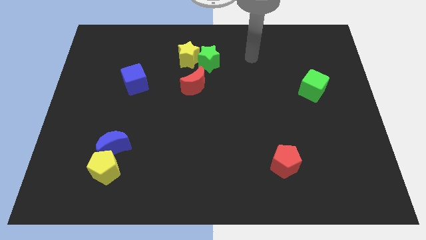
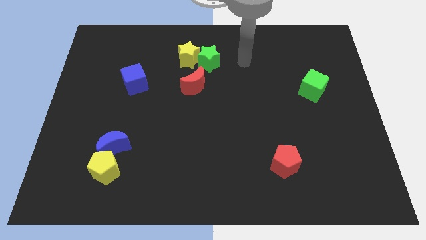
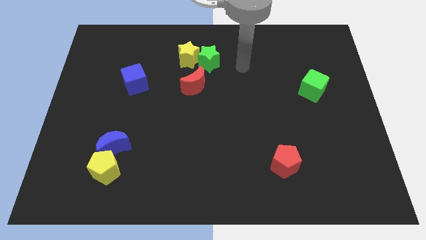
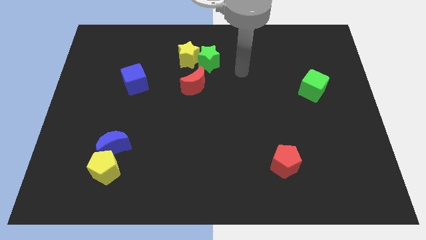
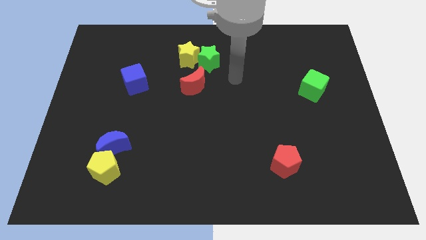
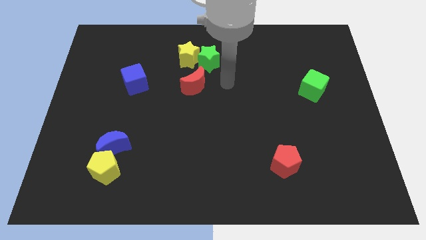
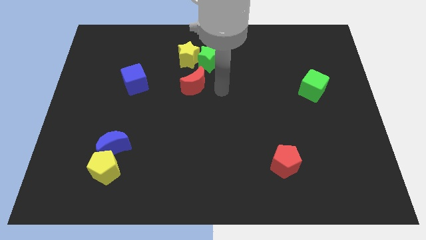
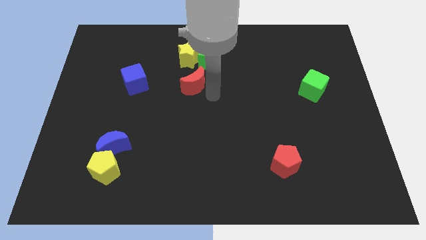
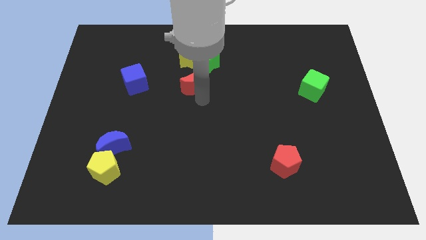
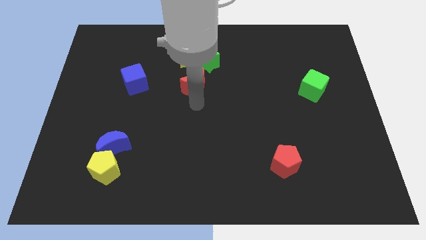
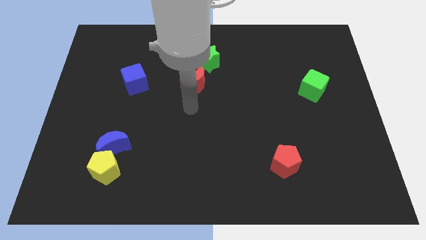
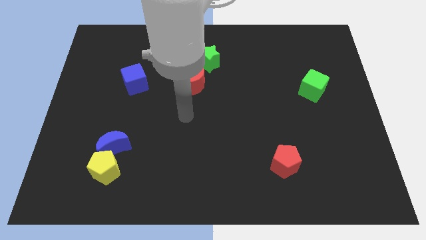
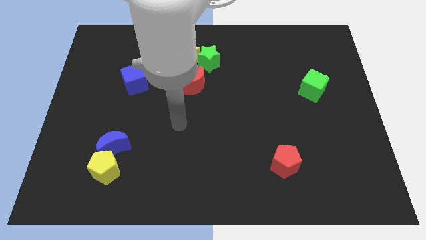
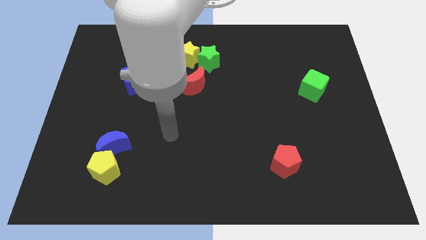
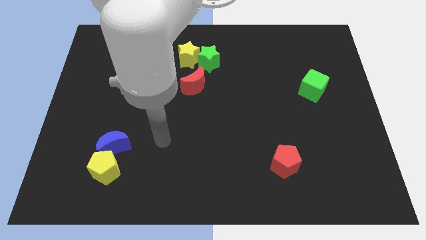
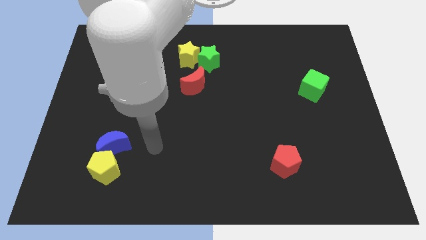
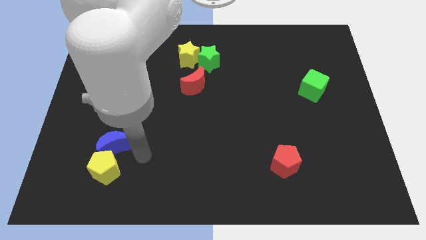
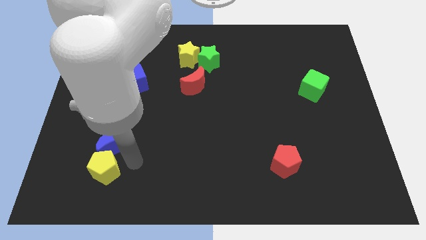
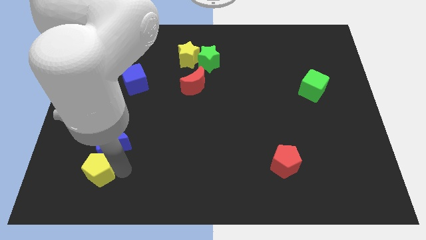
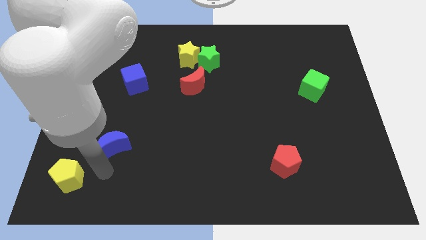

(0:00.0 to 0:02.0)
pull the blue moon apart from the yellow pentagon

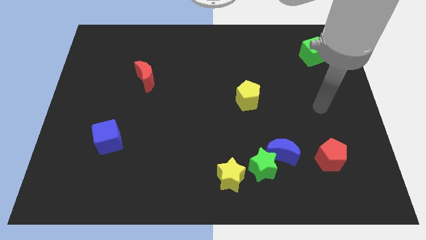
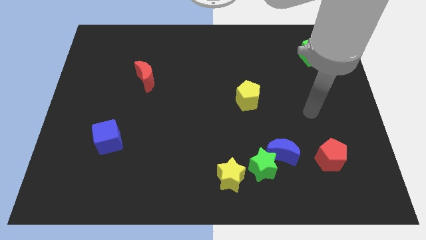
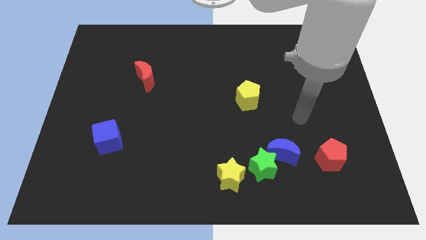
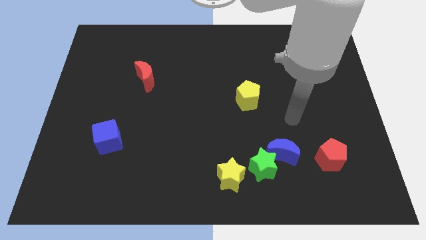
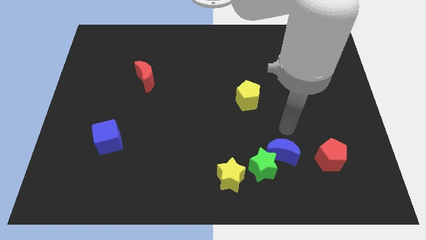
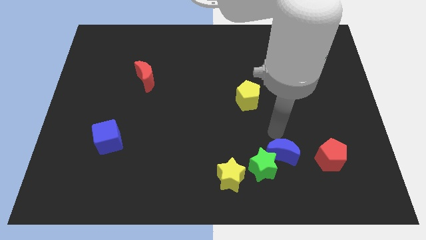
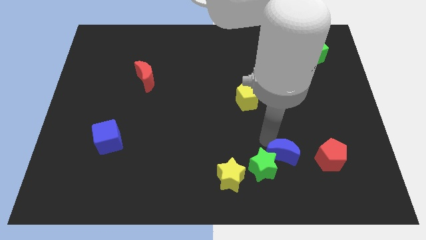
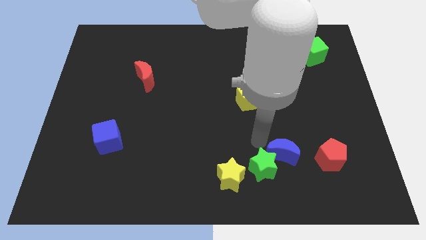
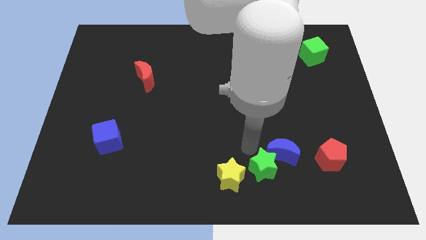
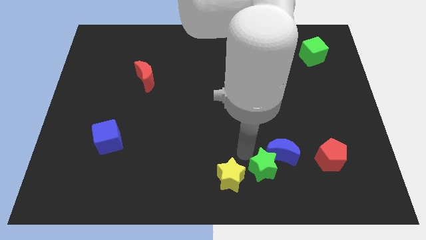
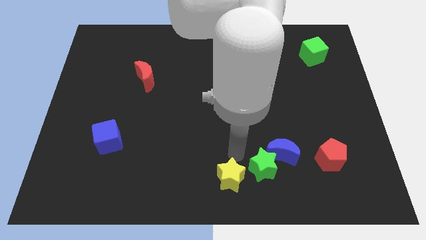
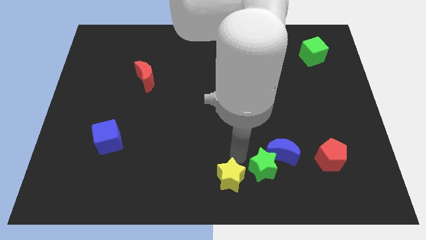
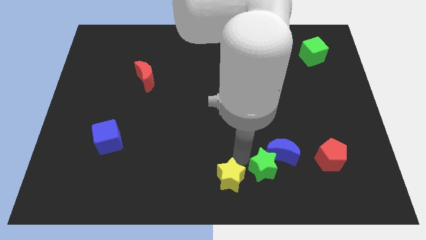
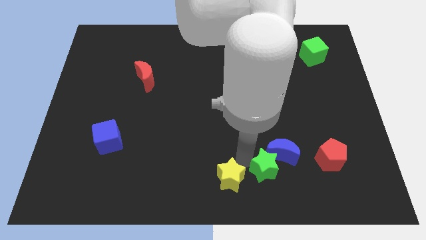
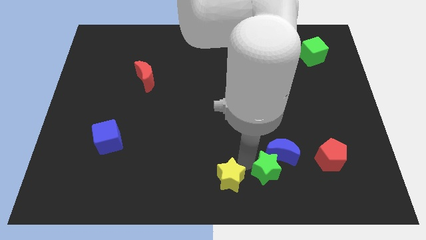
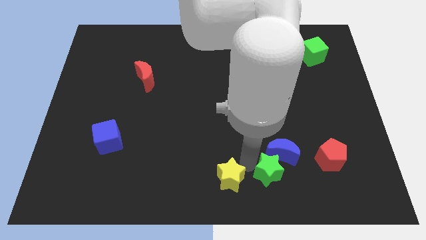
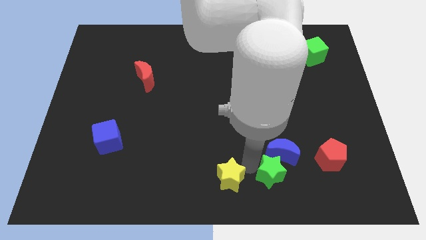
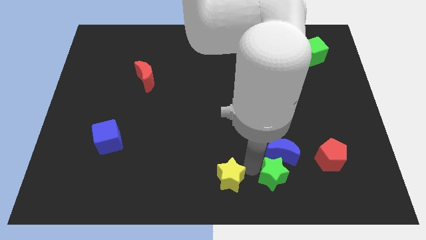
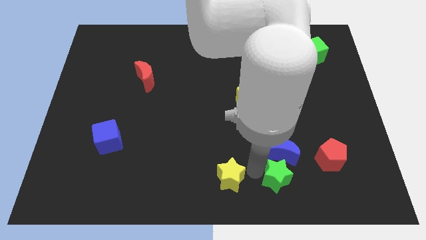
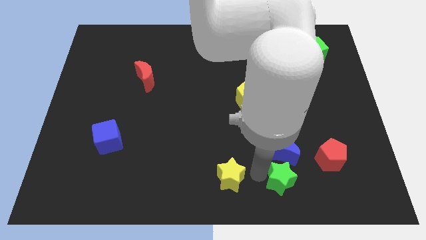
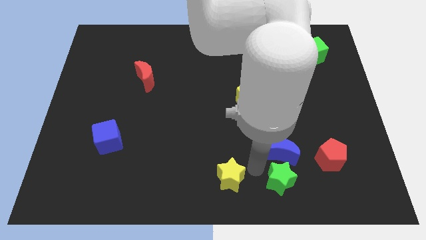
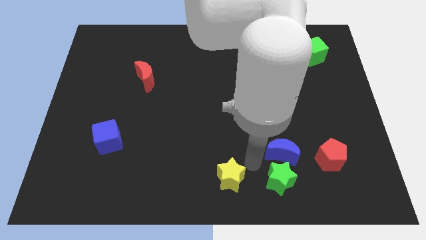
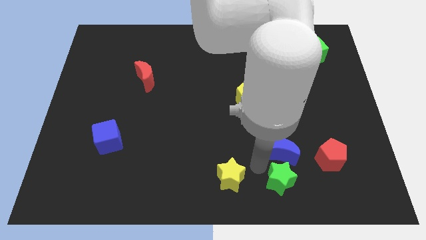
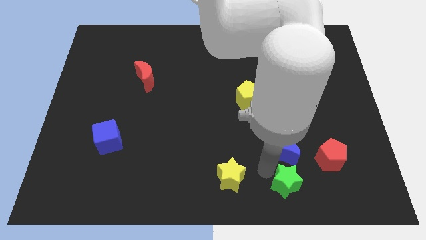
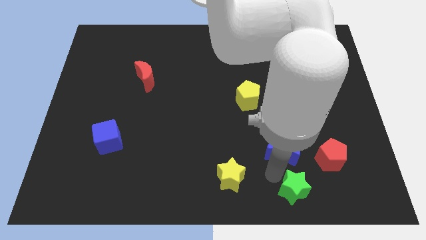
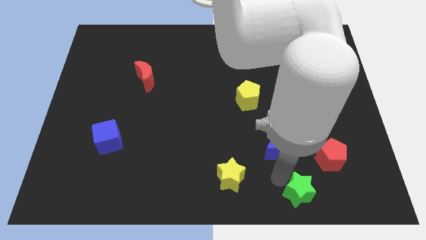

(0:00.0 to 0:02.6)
pull the green star apart from the blue moon and yellow star

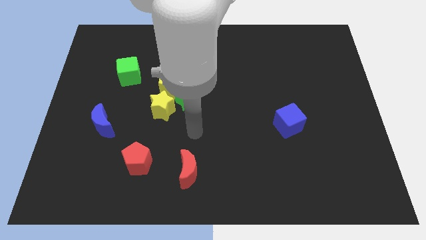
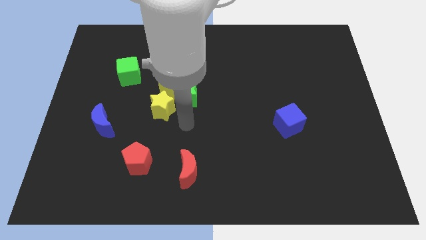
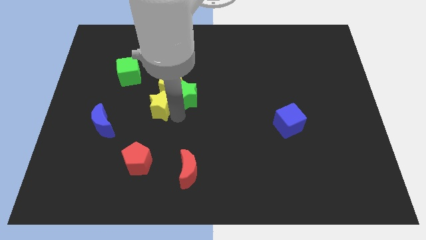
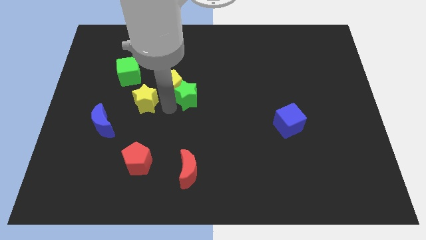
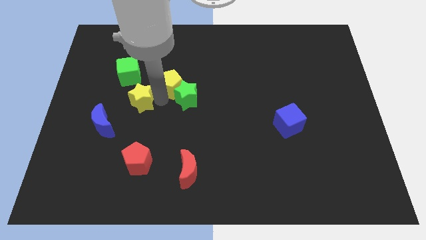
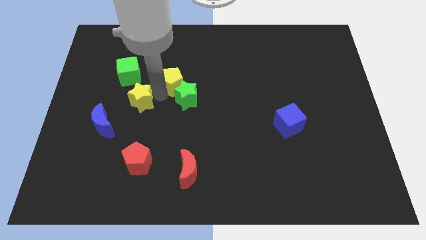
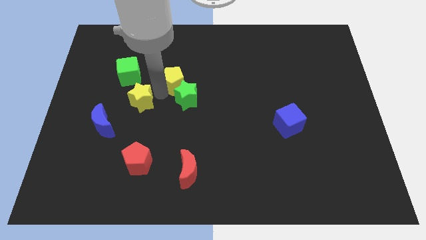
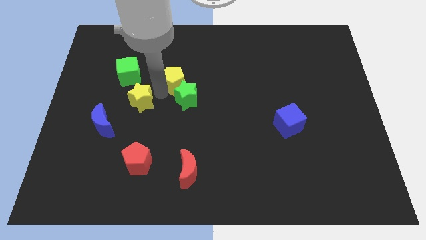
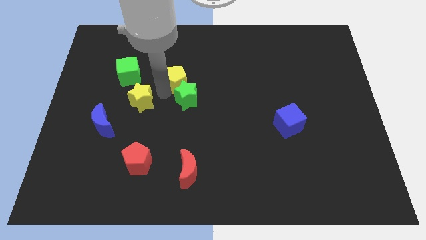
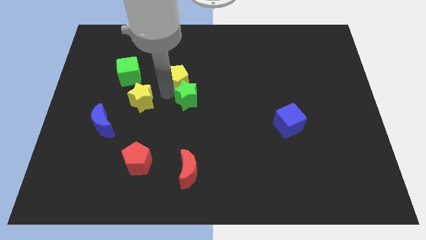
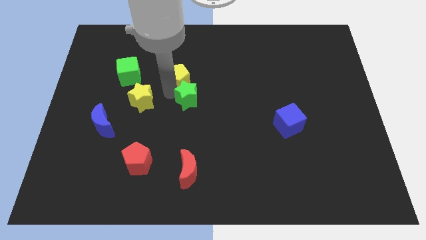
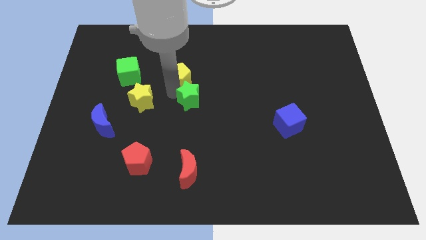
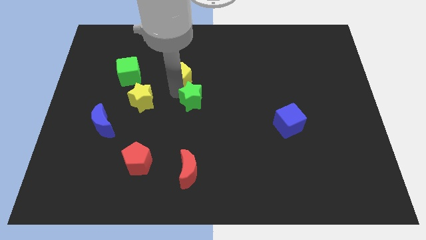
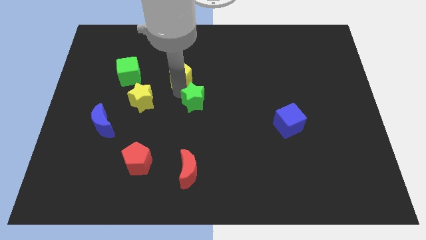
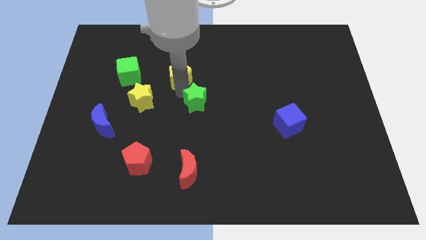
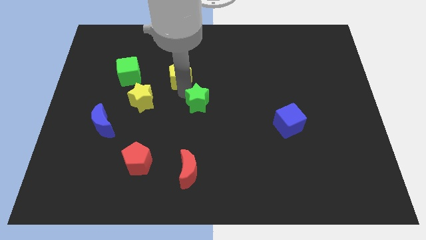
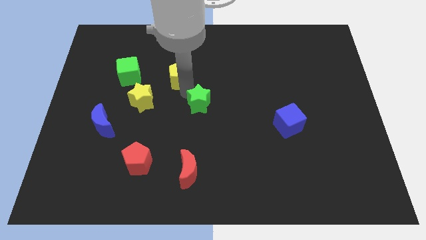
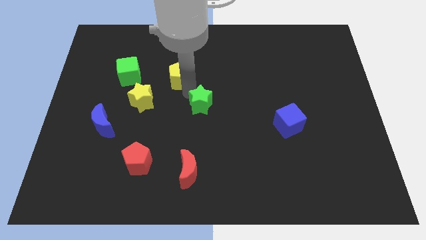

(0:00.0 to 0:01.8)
separate the green star from the yellow pentagon and yellow star

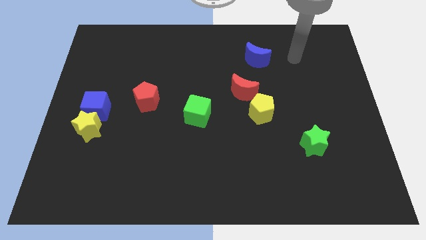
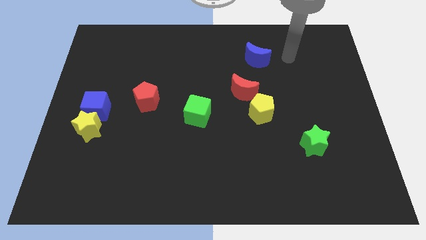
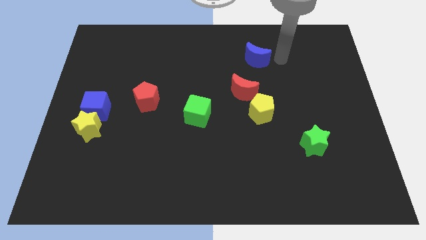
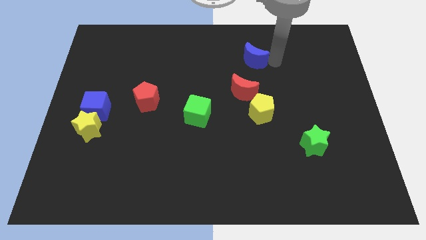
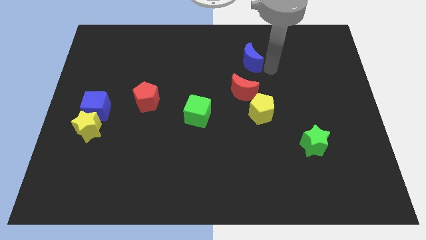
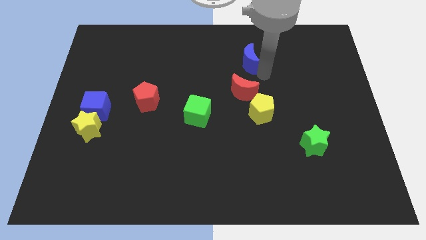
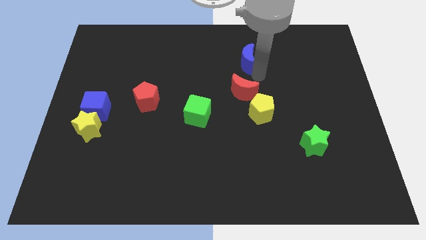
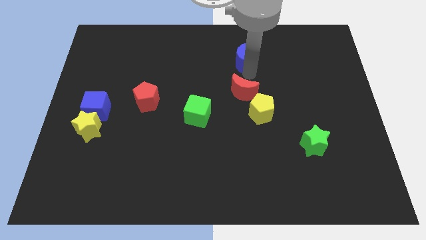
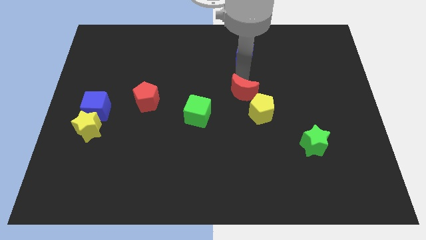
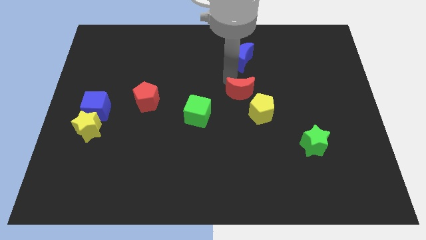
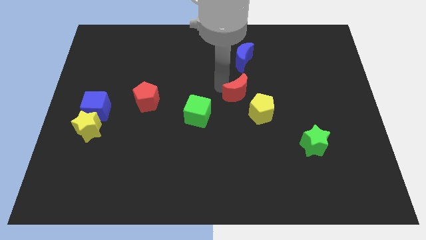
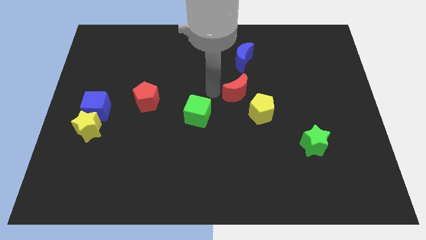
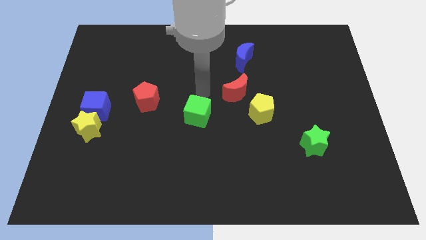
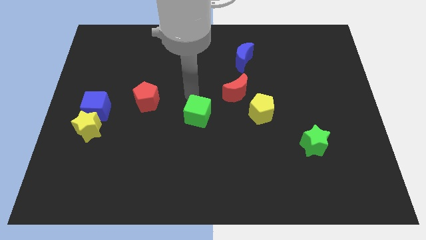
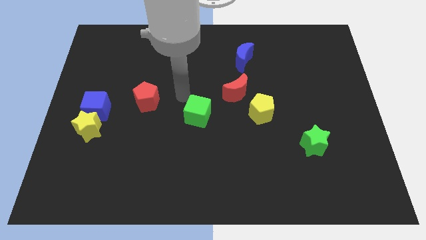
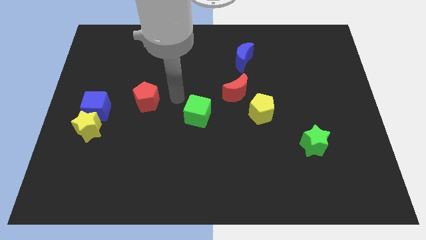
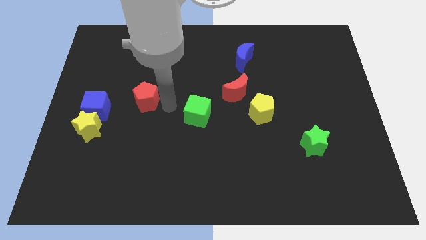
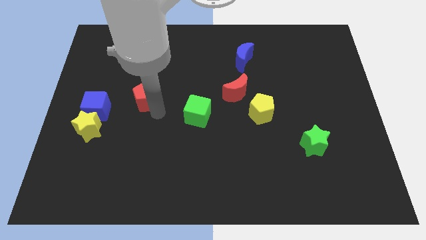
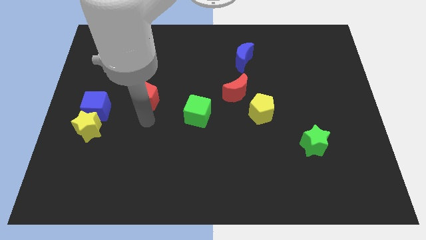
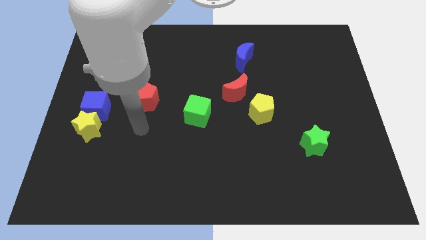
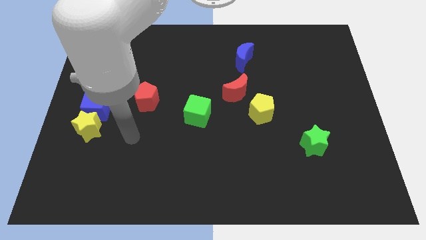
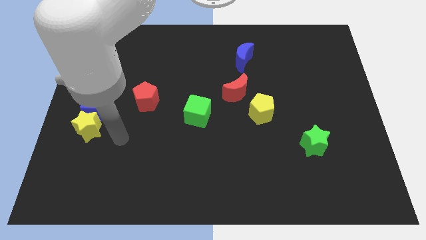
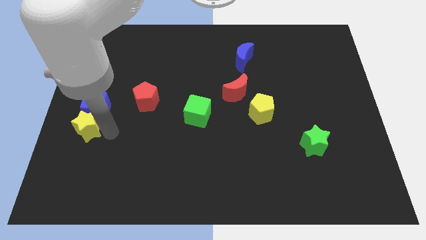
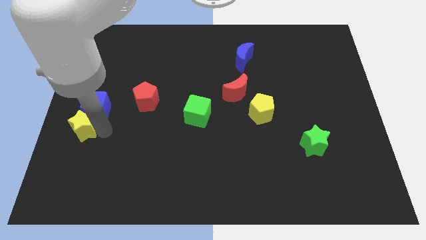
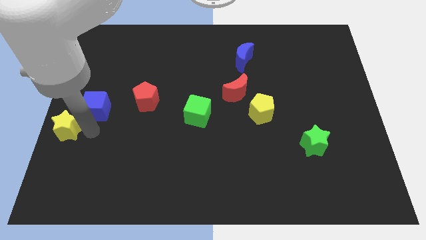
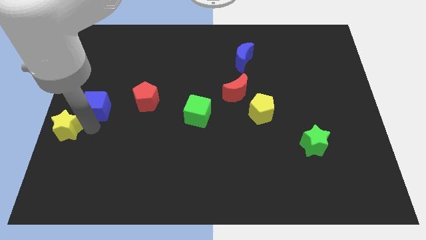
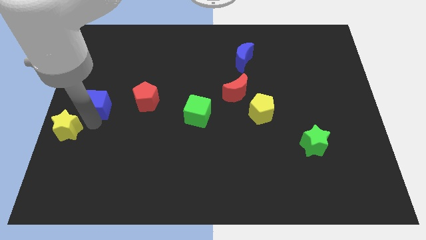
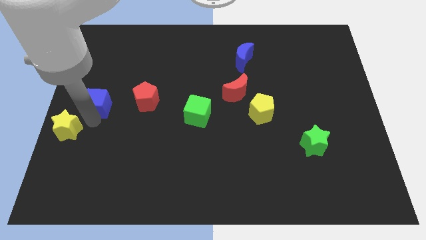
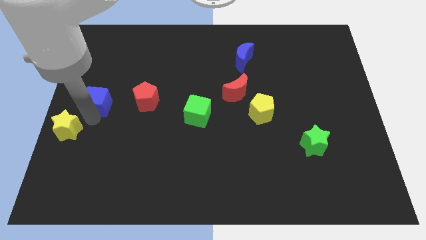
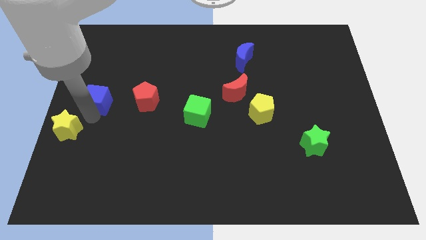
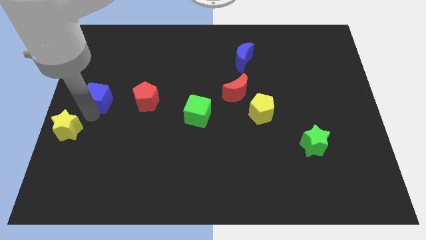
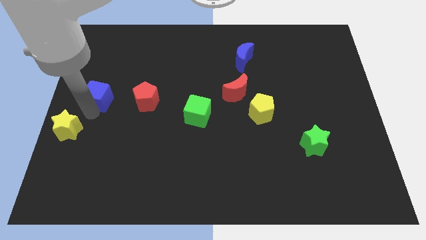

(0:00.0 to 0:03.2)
separate the blue cube from the yellow star
